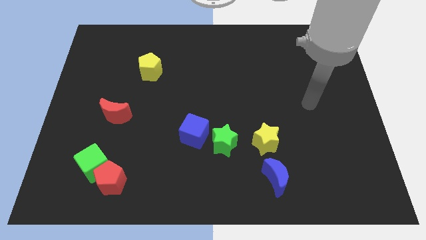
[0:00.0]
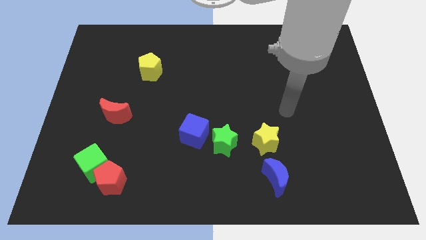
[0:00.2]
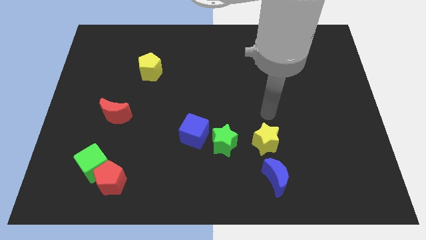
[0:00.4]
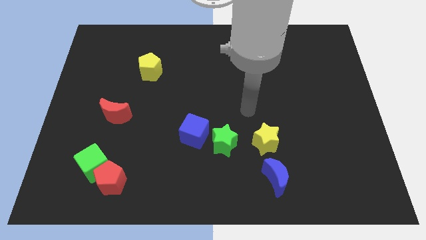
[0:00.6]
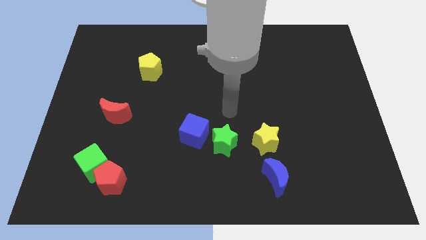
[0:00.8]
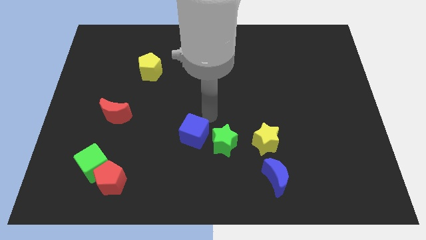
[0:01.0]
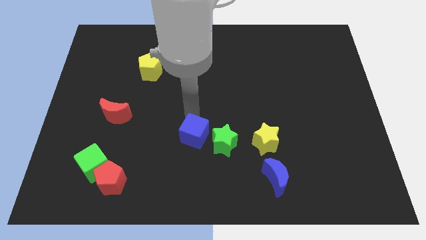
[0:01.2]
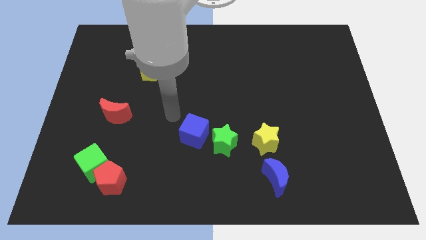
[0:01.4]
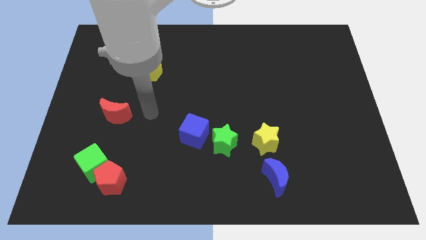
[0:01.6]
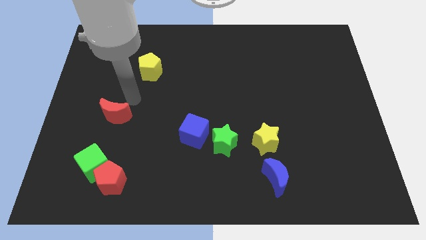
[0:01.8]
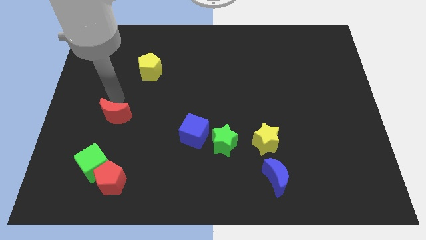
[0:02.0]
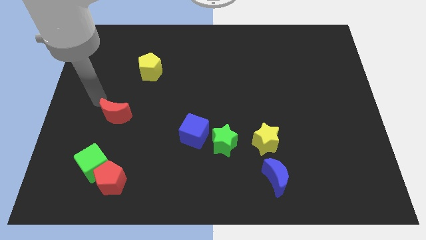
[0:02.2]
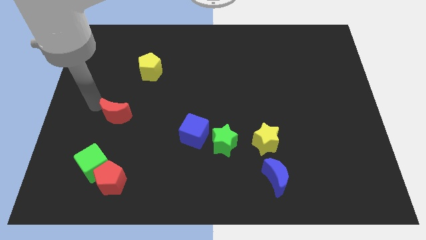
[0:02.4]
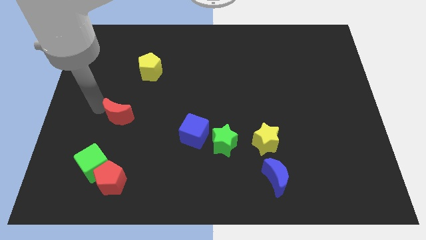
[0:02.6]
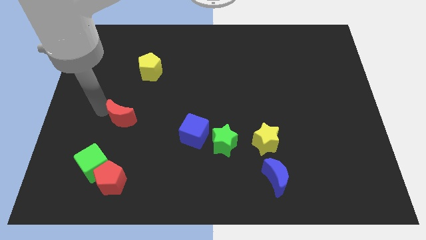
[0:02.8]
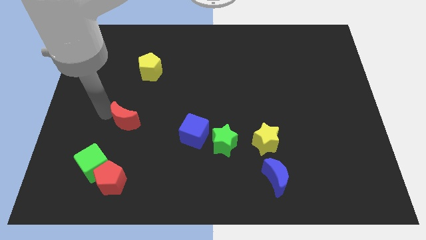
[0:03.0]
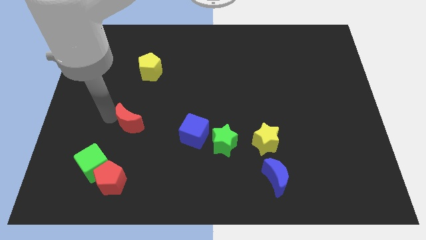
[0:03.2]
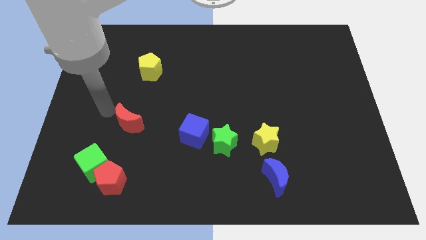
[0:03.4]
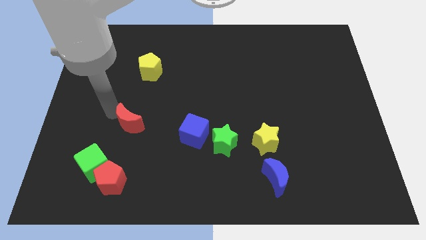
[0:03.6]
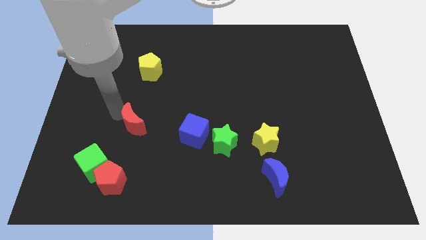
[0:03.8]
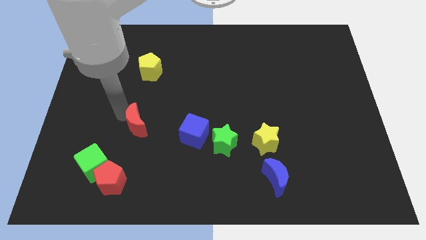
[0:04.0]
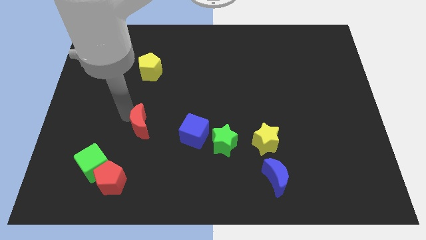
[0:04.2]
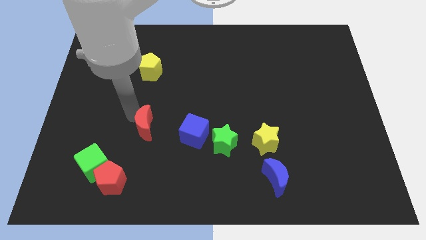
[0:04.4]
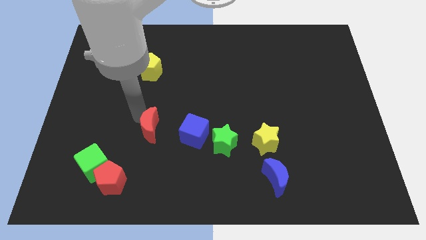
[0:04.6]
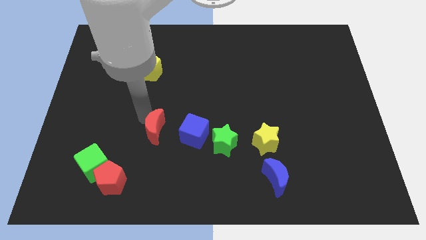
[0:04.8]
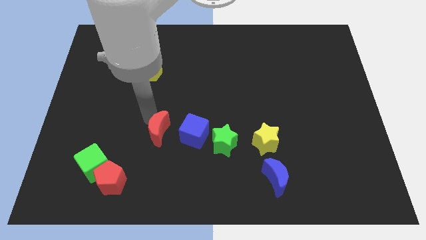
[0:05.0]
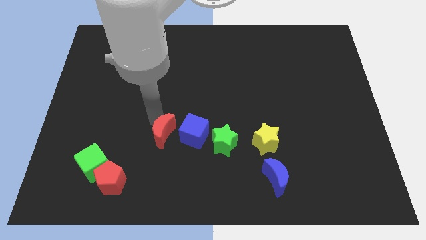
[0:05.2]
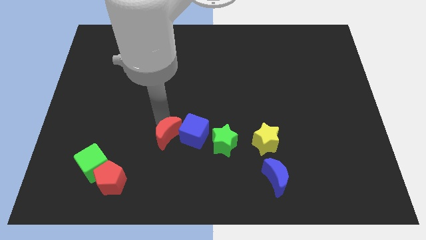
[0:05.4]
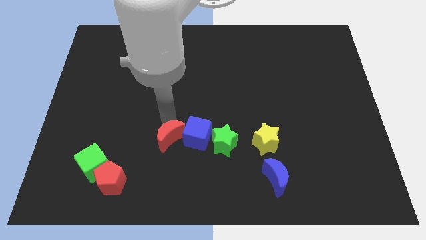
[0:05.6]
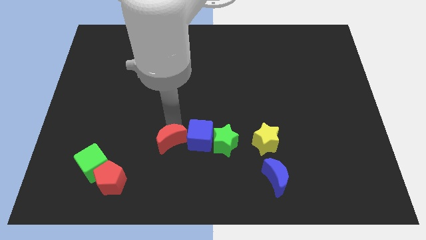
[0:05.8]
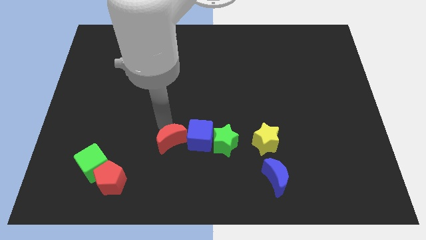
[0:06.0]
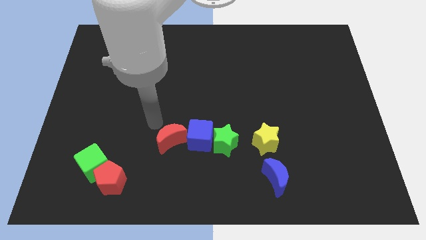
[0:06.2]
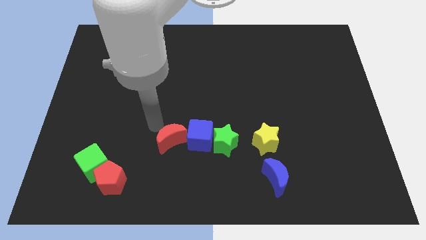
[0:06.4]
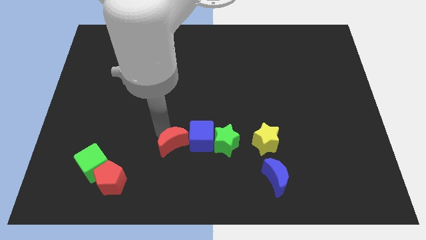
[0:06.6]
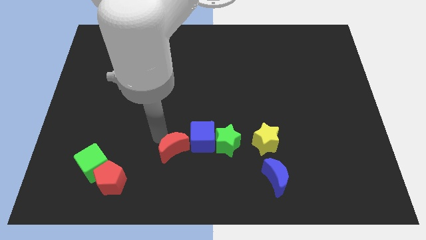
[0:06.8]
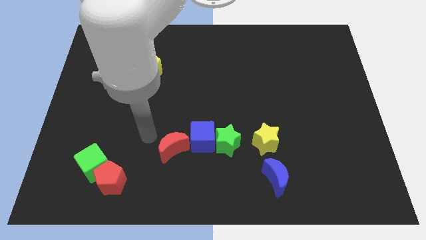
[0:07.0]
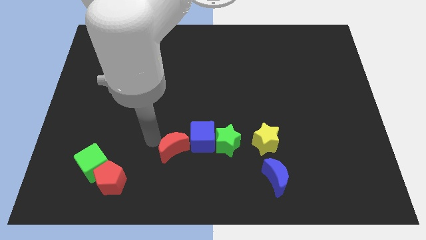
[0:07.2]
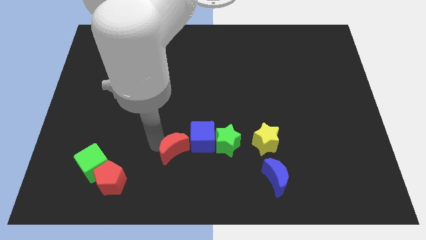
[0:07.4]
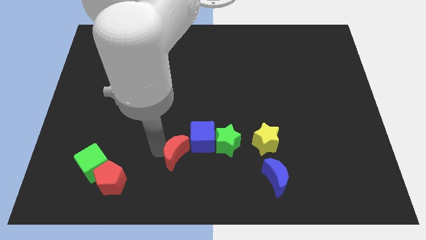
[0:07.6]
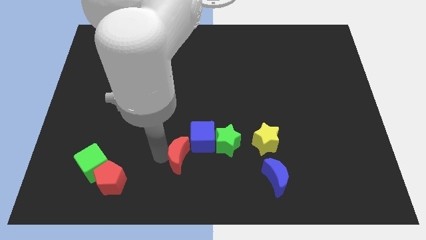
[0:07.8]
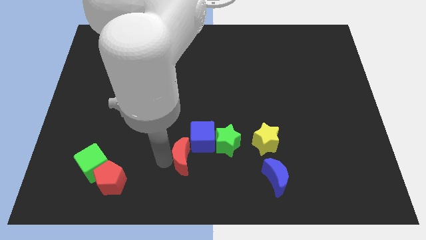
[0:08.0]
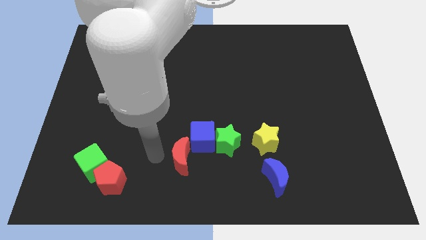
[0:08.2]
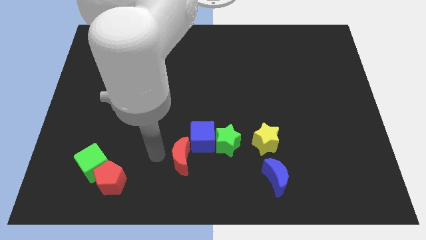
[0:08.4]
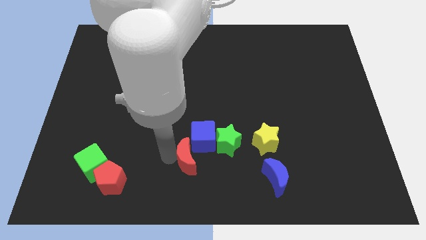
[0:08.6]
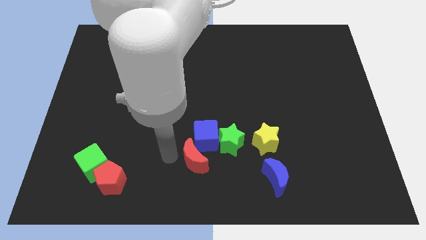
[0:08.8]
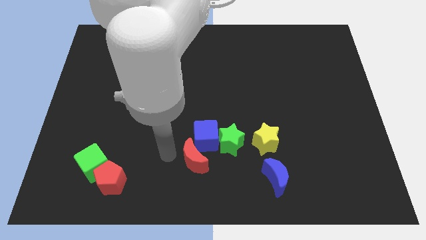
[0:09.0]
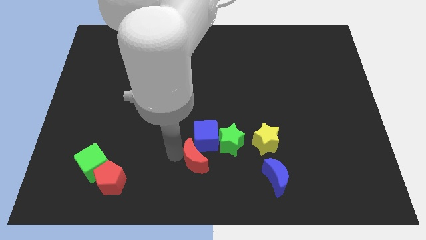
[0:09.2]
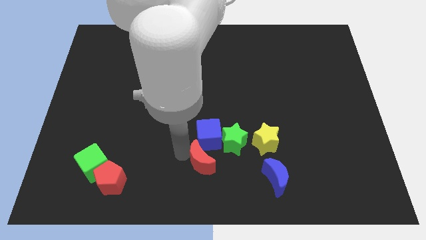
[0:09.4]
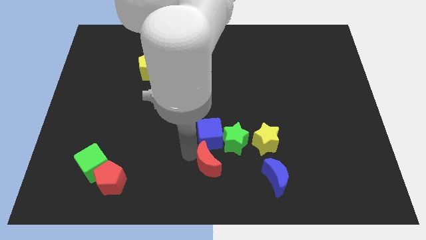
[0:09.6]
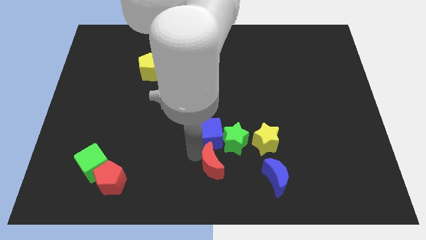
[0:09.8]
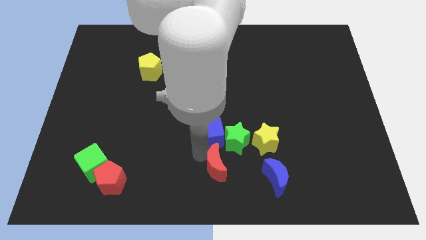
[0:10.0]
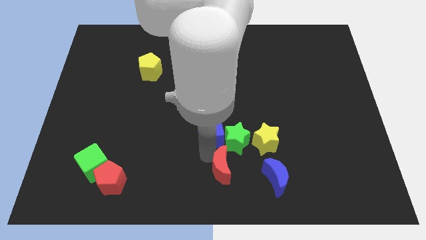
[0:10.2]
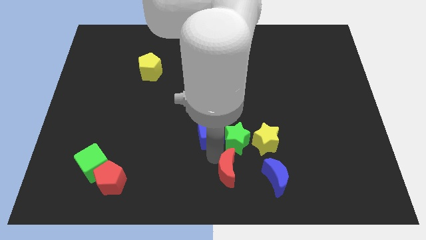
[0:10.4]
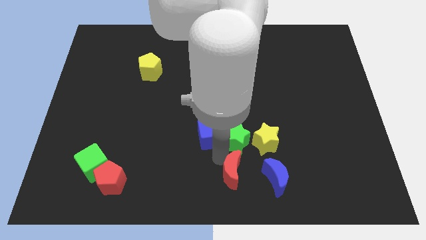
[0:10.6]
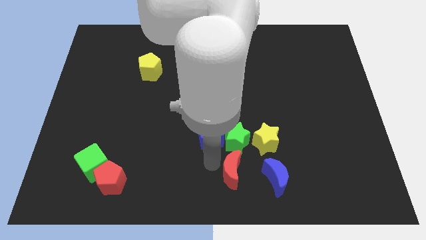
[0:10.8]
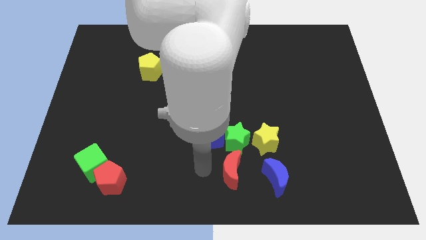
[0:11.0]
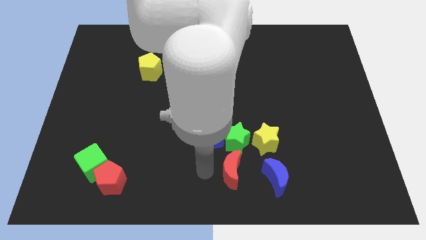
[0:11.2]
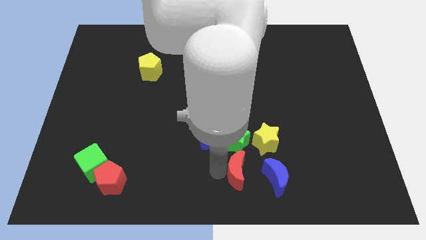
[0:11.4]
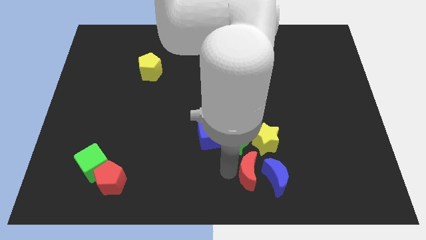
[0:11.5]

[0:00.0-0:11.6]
slide the red moon to the blue moon

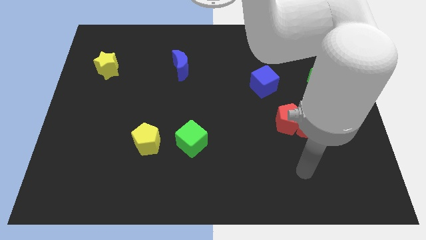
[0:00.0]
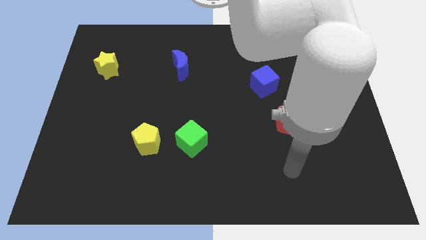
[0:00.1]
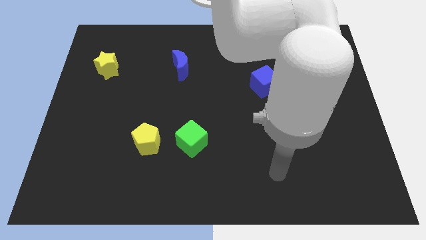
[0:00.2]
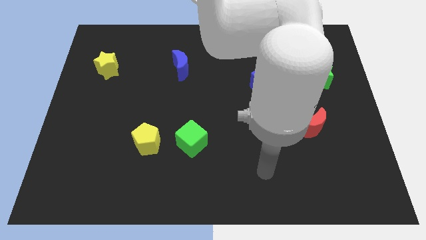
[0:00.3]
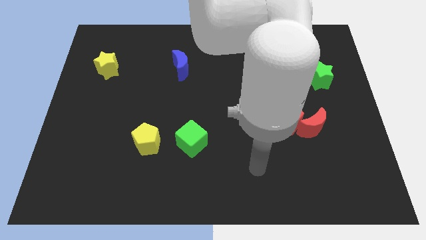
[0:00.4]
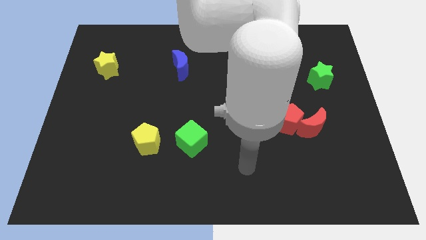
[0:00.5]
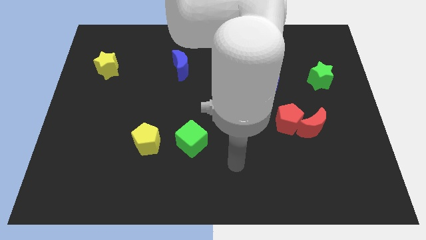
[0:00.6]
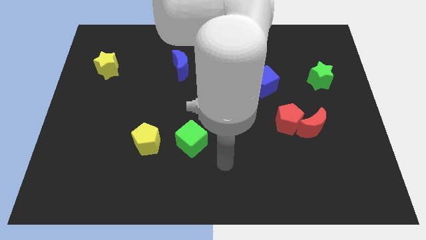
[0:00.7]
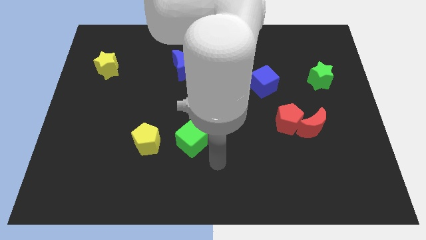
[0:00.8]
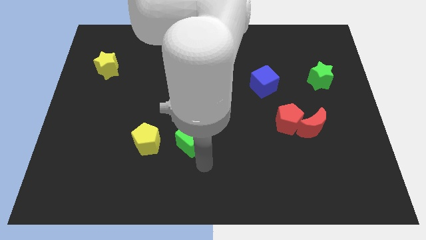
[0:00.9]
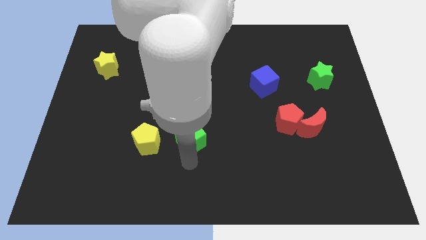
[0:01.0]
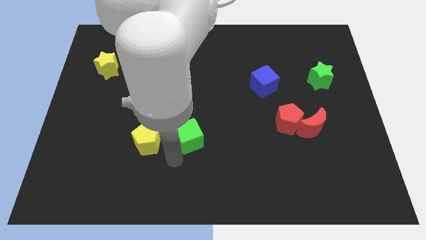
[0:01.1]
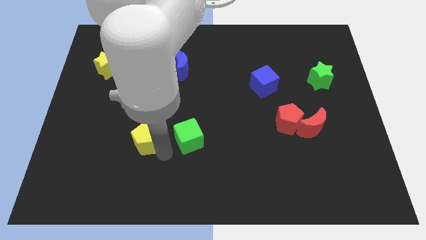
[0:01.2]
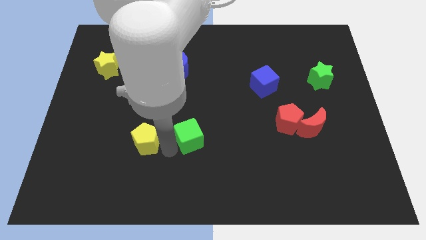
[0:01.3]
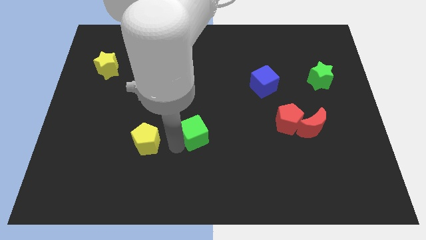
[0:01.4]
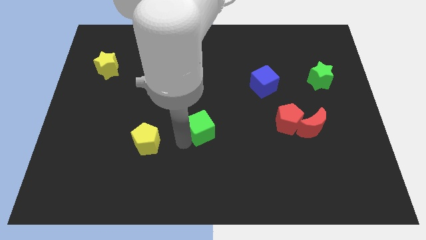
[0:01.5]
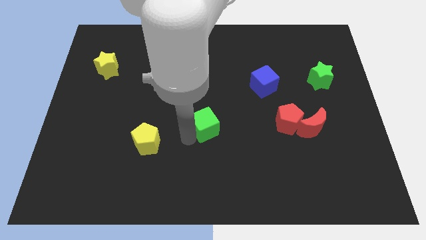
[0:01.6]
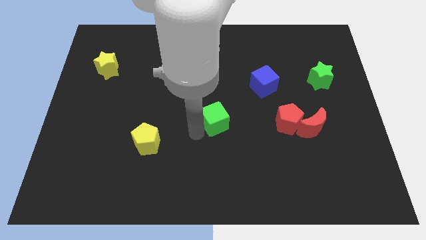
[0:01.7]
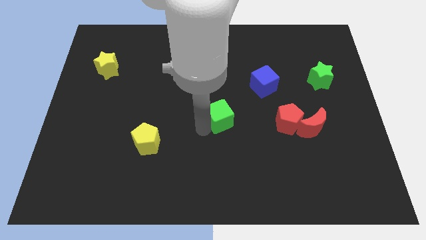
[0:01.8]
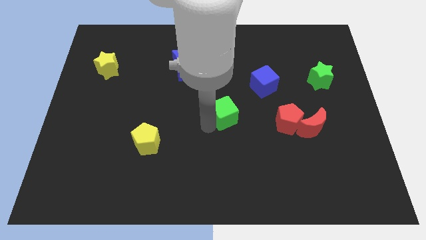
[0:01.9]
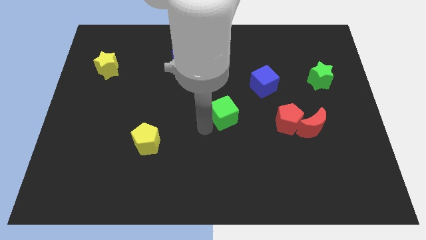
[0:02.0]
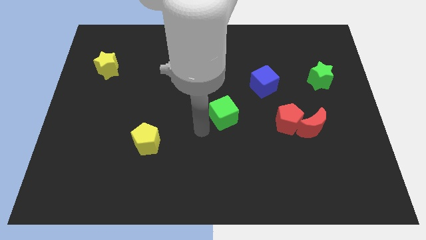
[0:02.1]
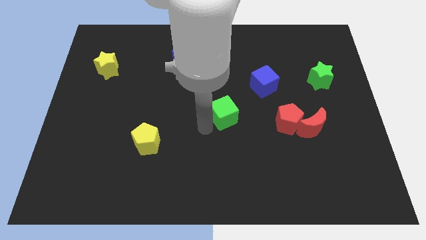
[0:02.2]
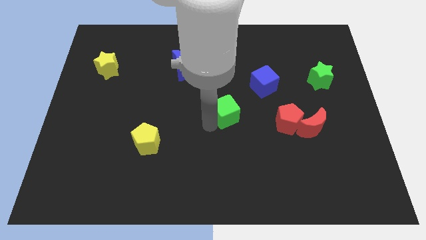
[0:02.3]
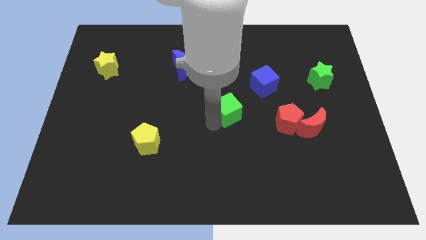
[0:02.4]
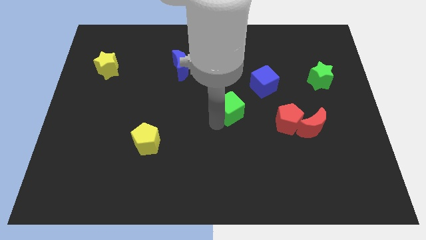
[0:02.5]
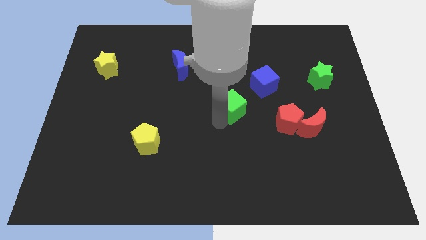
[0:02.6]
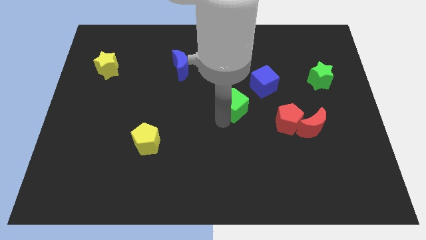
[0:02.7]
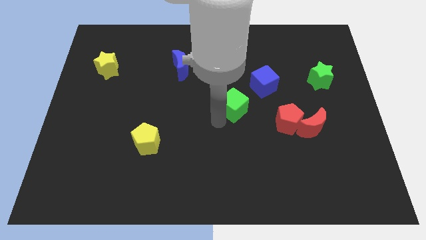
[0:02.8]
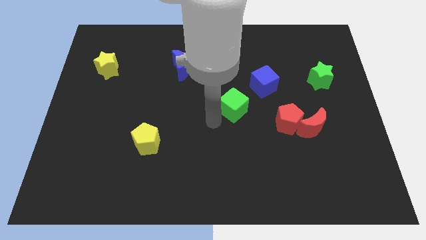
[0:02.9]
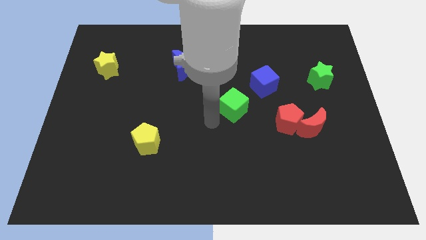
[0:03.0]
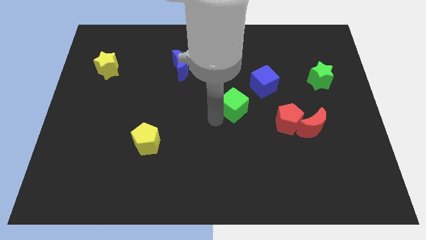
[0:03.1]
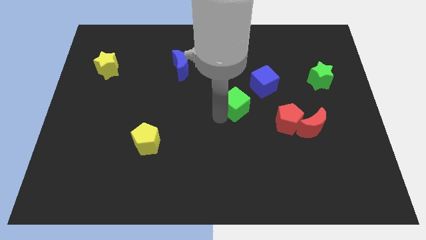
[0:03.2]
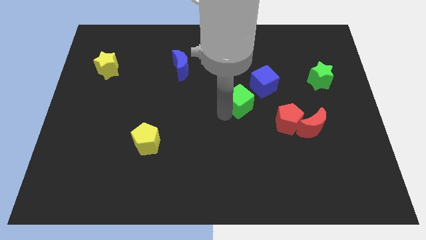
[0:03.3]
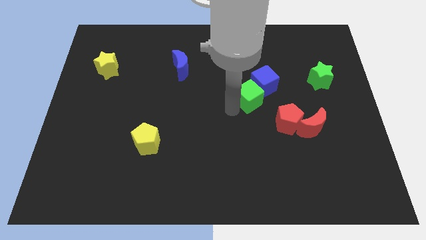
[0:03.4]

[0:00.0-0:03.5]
slide the green cube to the blue cube
